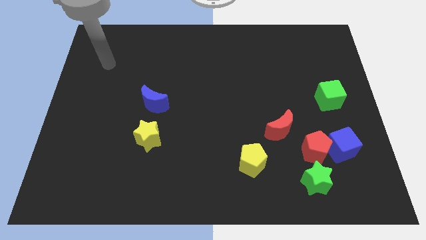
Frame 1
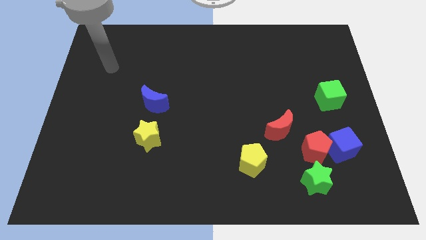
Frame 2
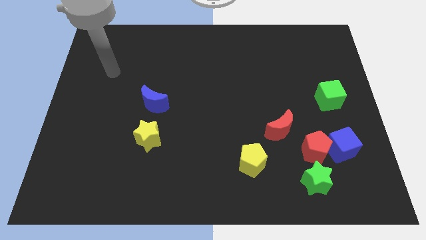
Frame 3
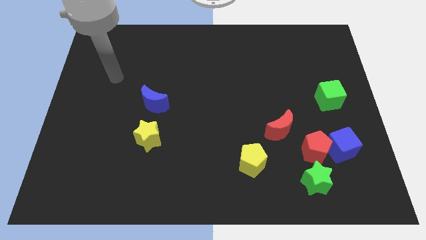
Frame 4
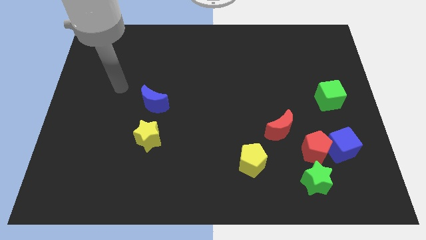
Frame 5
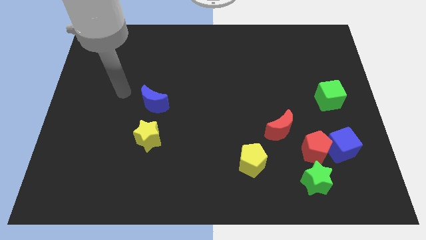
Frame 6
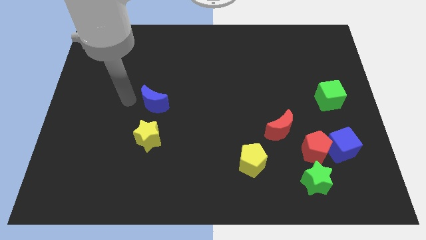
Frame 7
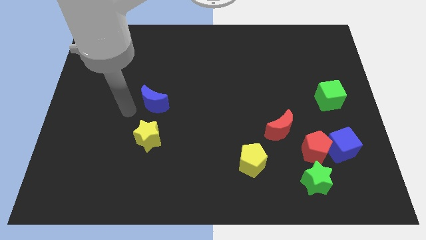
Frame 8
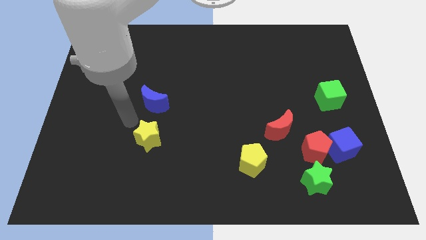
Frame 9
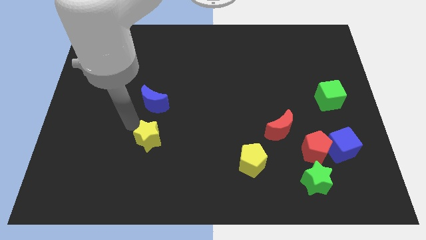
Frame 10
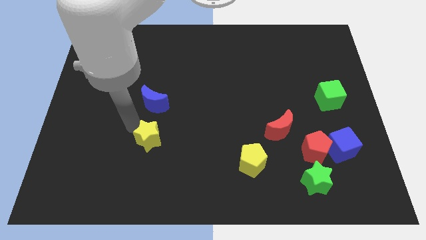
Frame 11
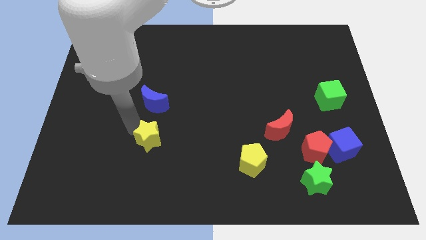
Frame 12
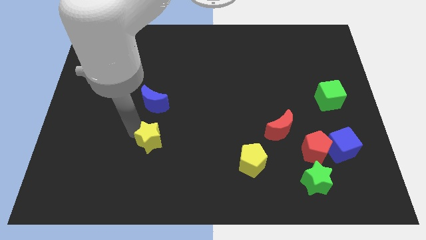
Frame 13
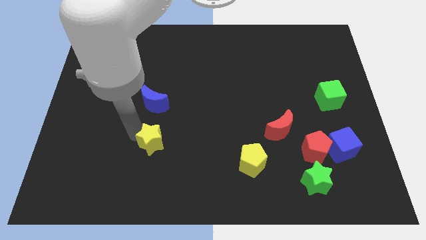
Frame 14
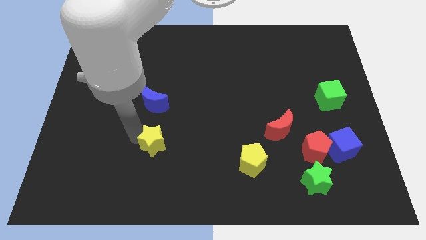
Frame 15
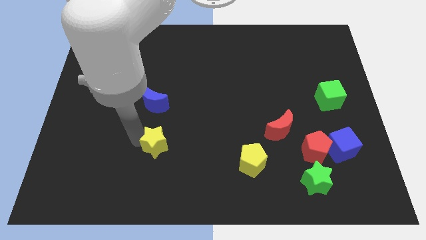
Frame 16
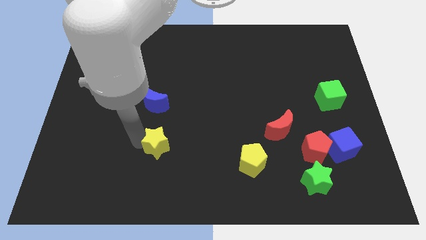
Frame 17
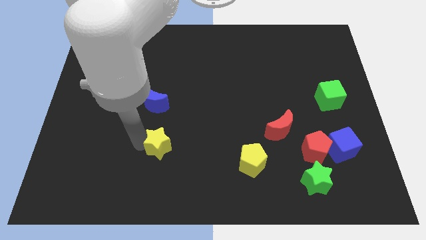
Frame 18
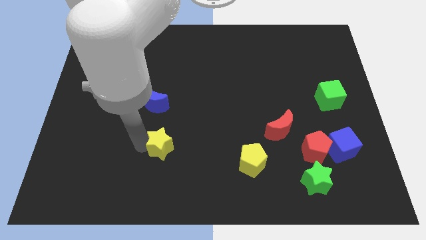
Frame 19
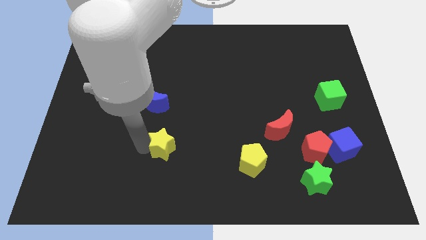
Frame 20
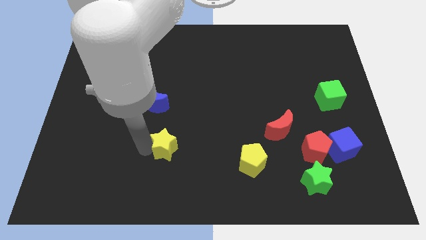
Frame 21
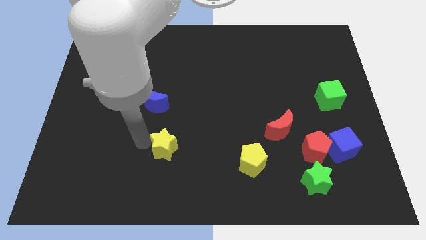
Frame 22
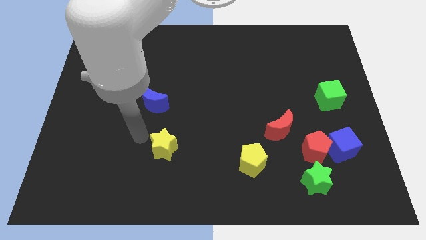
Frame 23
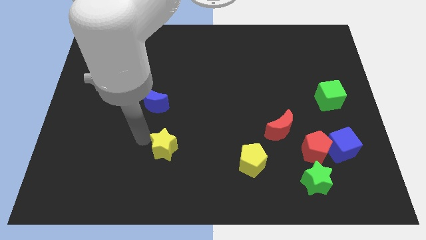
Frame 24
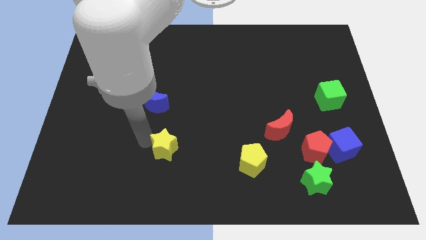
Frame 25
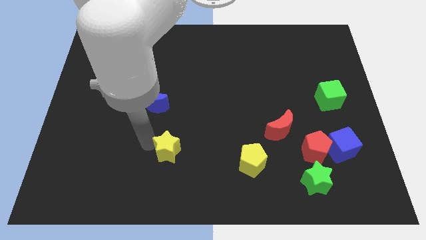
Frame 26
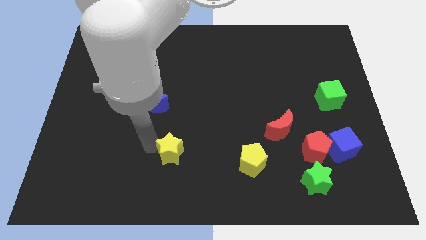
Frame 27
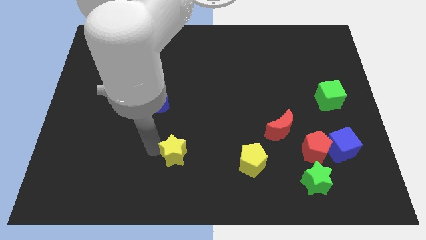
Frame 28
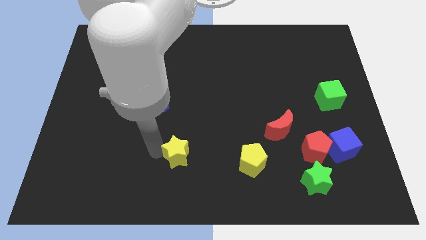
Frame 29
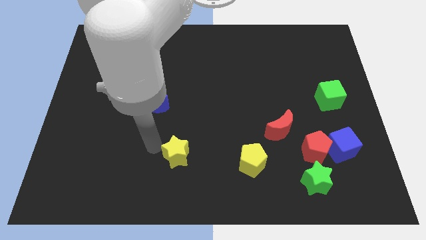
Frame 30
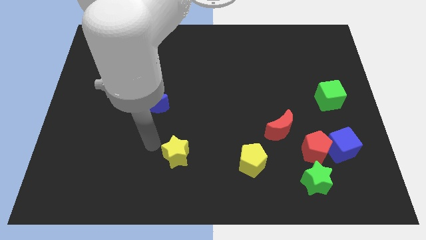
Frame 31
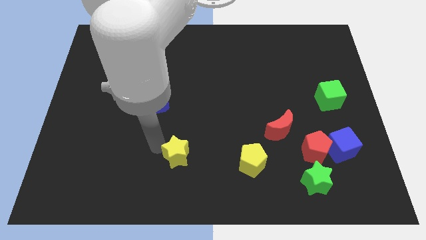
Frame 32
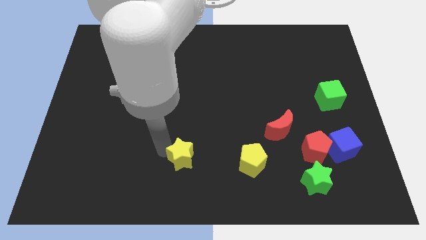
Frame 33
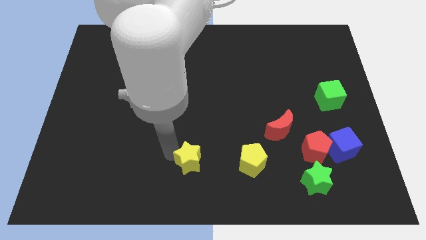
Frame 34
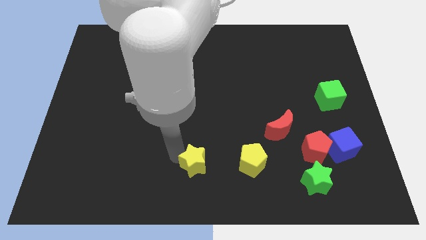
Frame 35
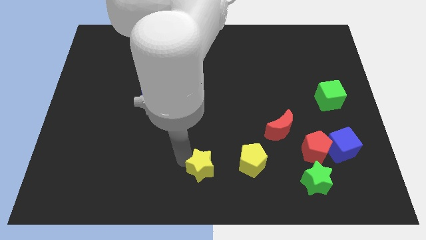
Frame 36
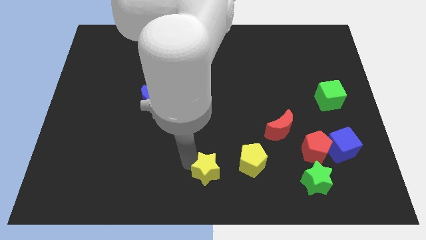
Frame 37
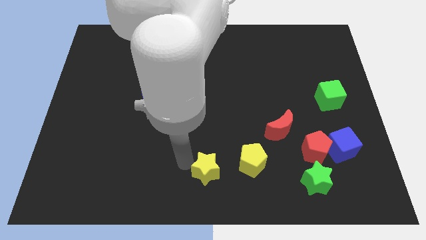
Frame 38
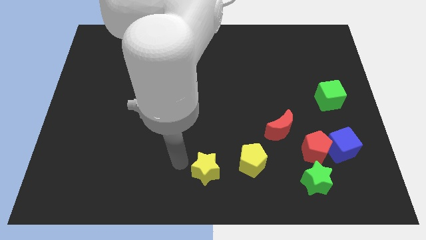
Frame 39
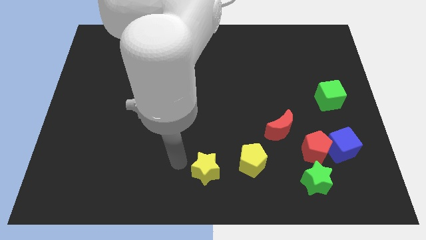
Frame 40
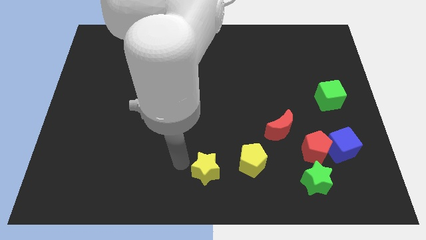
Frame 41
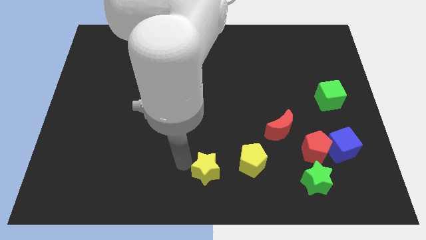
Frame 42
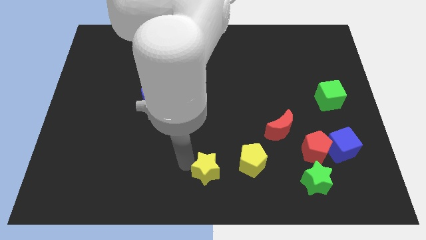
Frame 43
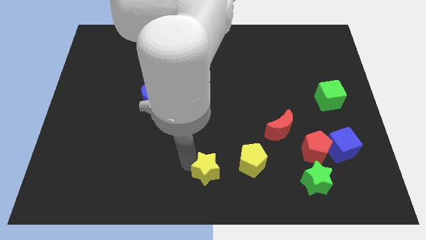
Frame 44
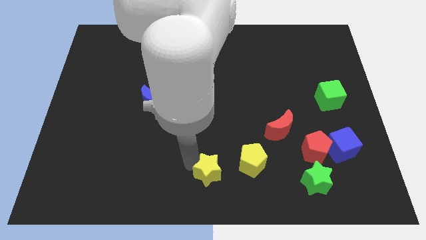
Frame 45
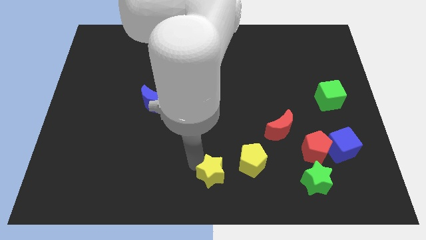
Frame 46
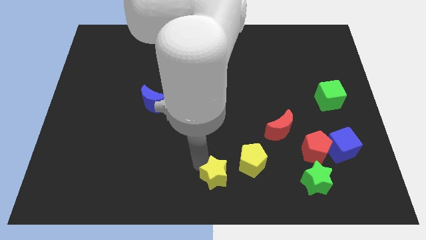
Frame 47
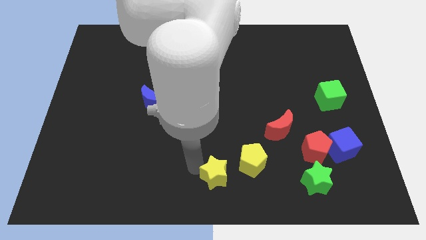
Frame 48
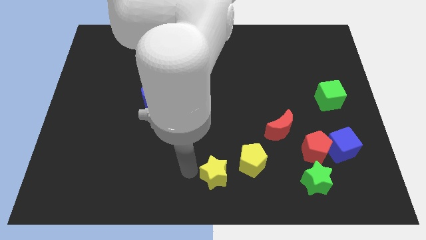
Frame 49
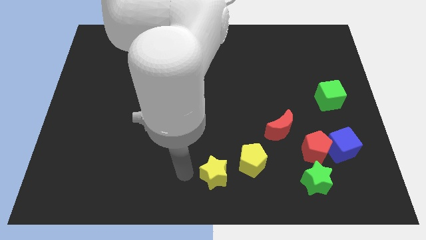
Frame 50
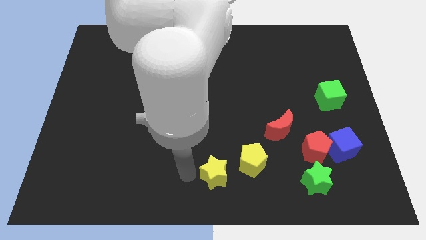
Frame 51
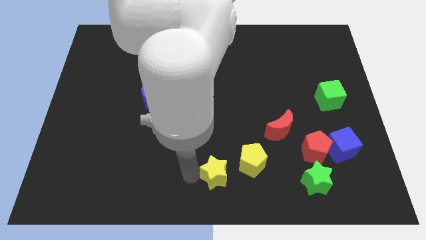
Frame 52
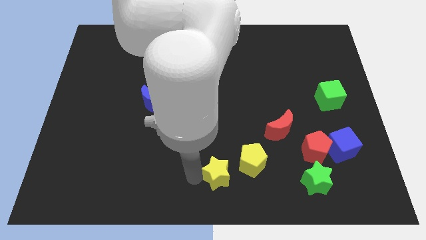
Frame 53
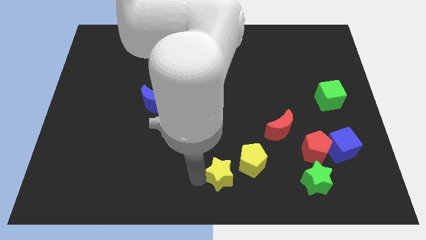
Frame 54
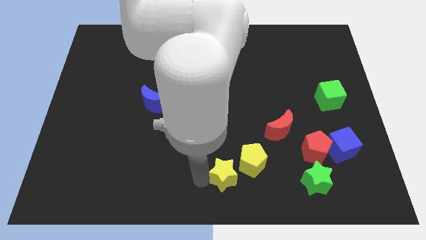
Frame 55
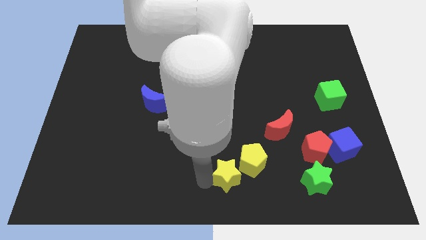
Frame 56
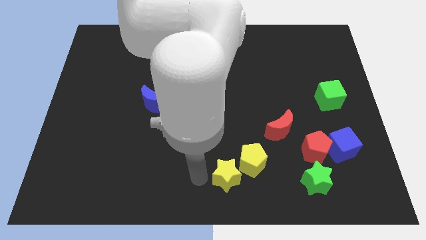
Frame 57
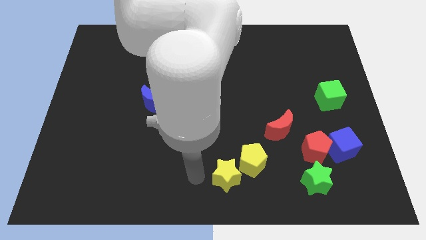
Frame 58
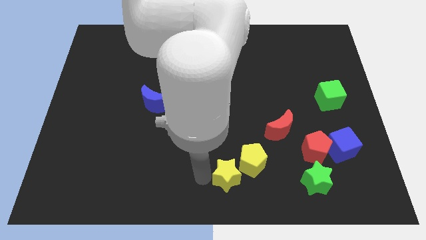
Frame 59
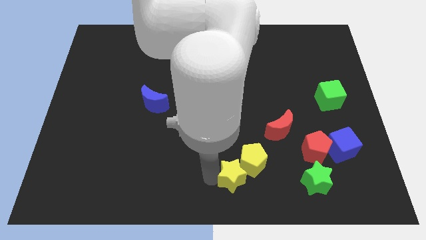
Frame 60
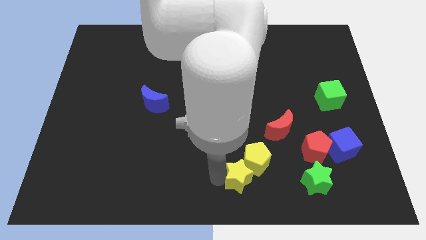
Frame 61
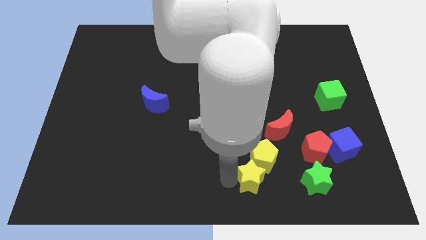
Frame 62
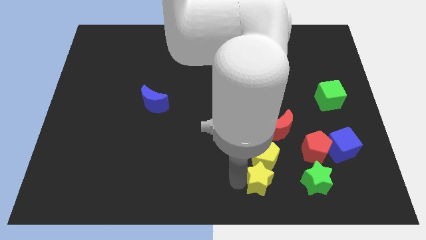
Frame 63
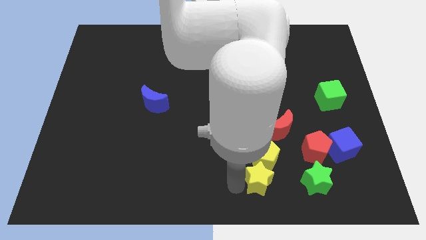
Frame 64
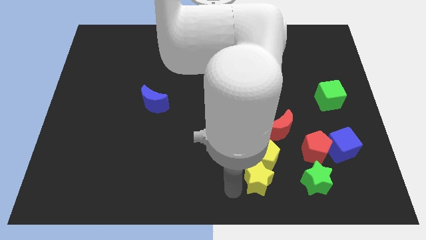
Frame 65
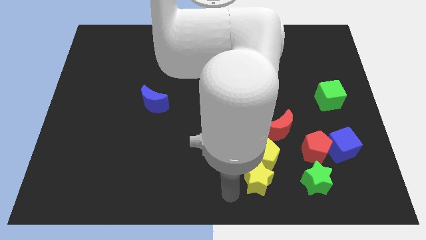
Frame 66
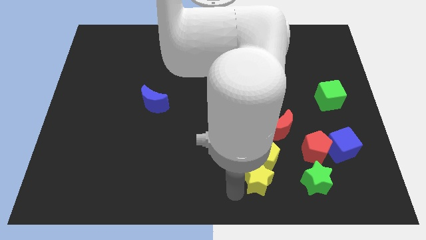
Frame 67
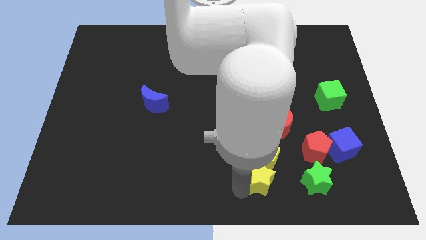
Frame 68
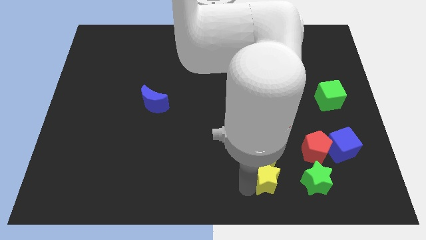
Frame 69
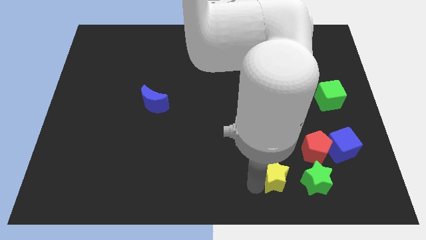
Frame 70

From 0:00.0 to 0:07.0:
push the yellow star to the bottom left of the red pentagon
